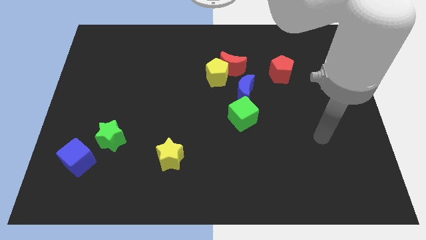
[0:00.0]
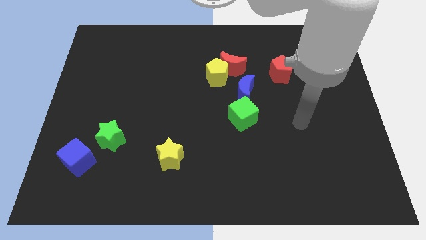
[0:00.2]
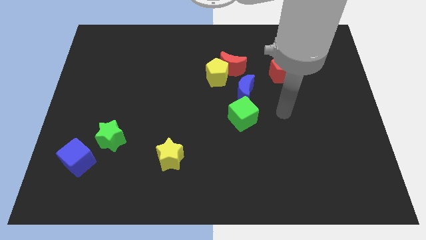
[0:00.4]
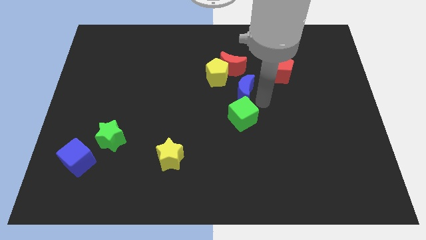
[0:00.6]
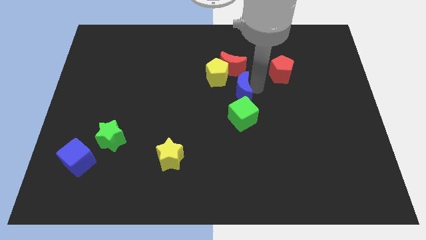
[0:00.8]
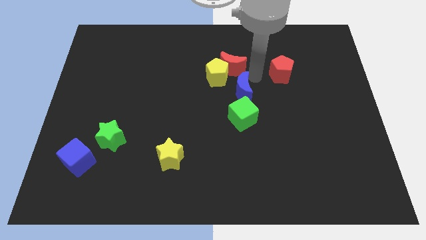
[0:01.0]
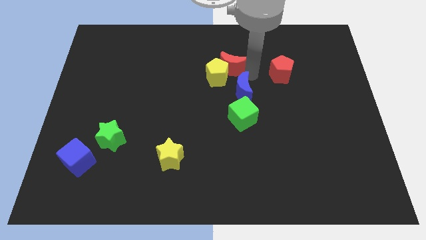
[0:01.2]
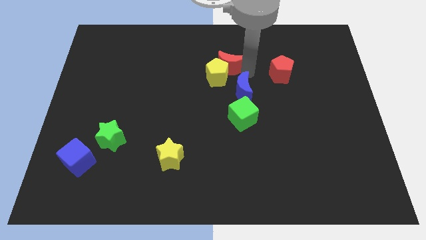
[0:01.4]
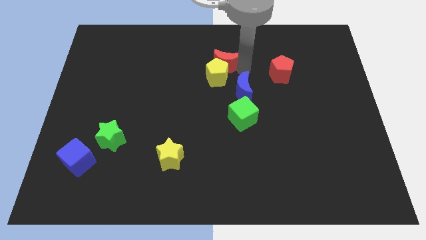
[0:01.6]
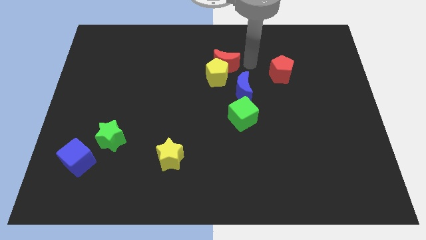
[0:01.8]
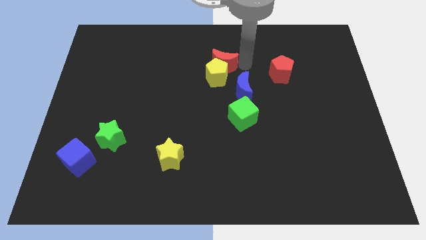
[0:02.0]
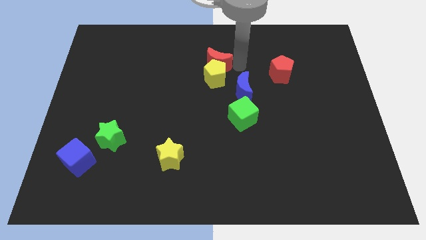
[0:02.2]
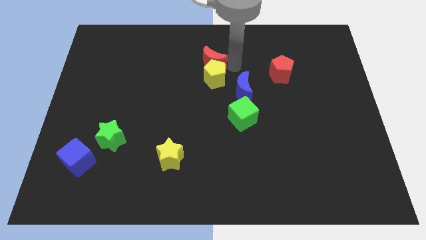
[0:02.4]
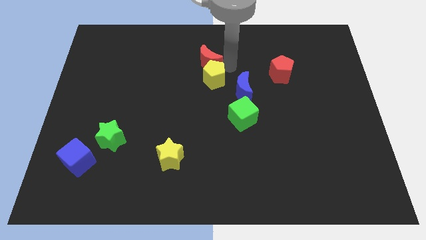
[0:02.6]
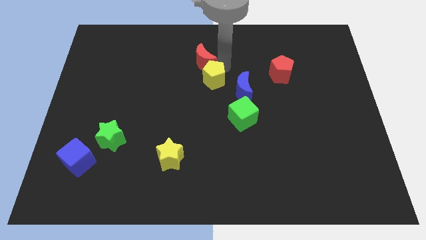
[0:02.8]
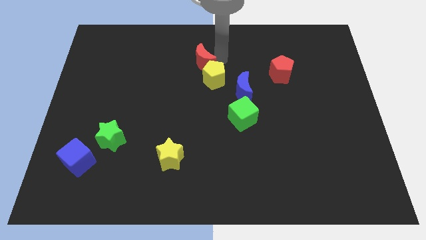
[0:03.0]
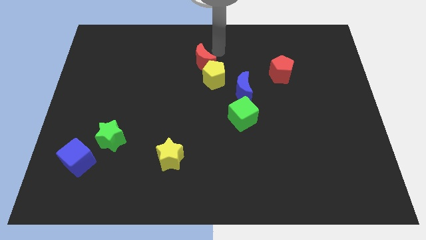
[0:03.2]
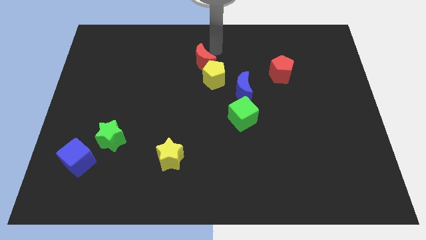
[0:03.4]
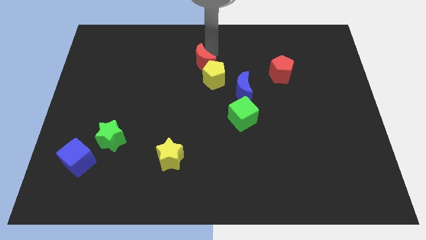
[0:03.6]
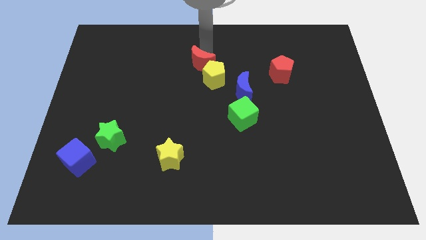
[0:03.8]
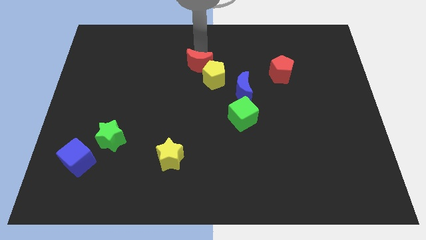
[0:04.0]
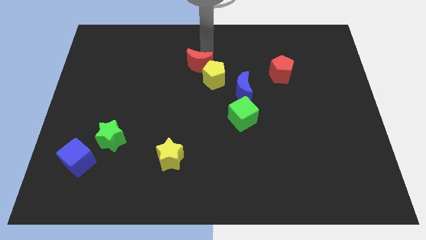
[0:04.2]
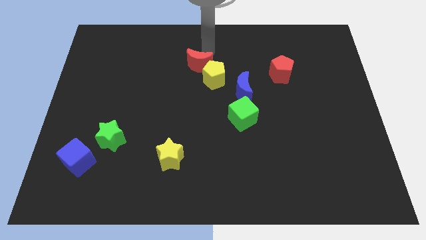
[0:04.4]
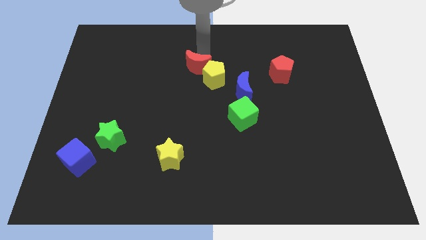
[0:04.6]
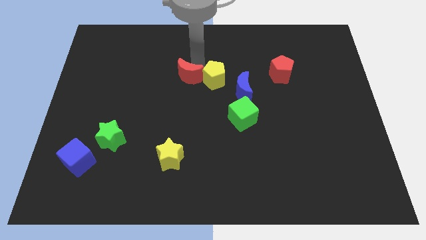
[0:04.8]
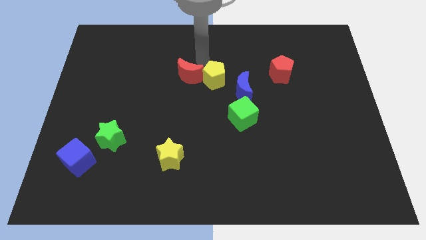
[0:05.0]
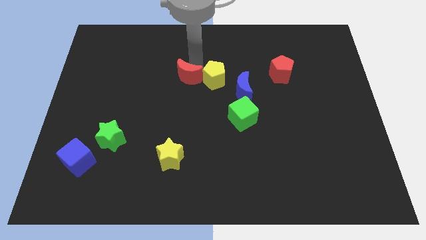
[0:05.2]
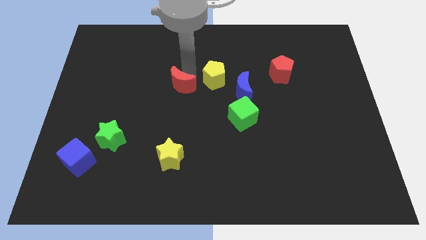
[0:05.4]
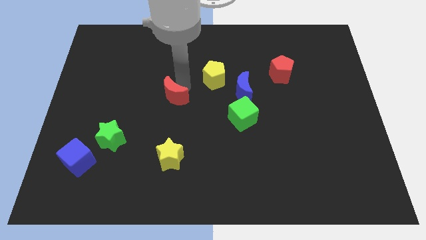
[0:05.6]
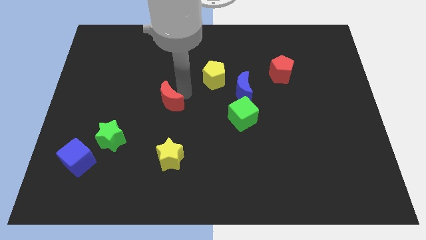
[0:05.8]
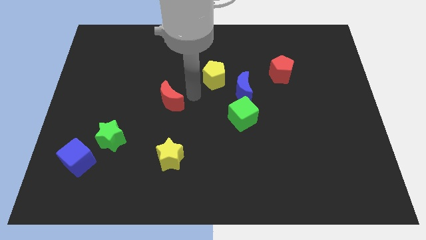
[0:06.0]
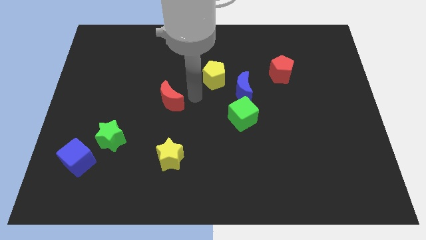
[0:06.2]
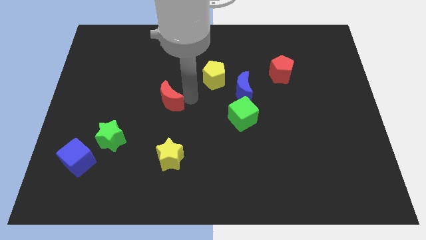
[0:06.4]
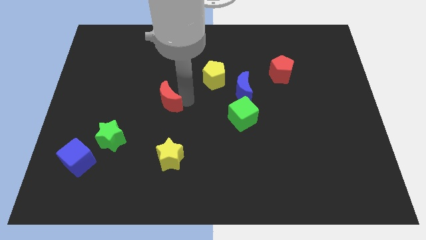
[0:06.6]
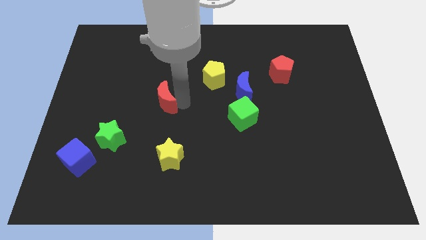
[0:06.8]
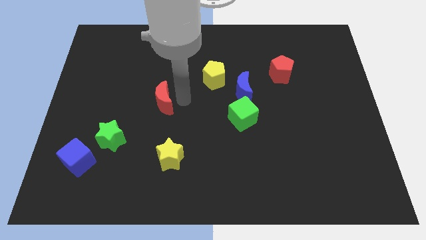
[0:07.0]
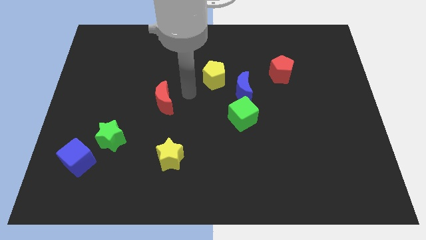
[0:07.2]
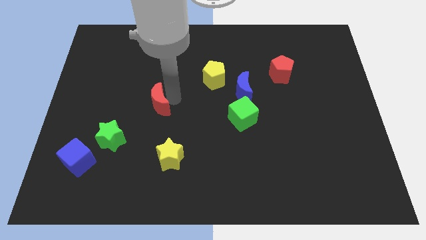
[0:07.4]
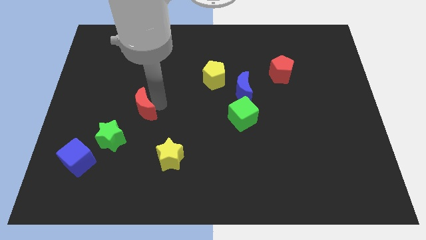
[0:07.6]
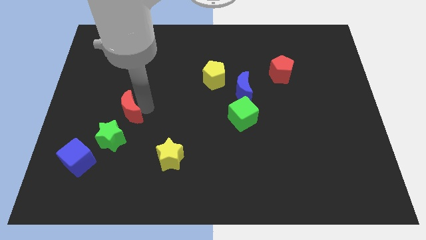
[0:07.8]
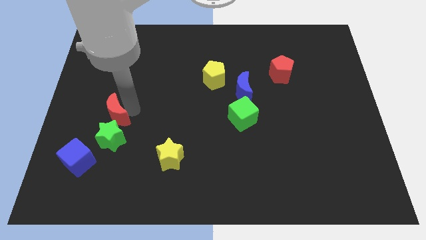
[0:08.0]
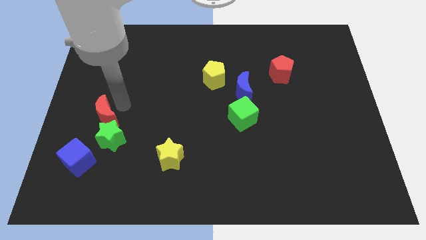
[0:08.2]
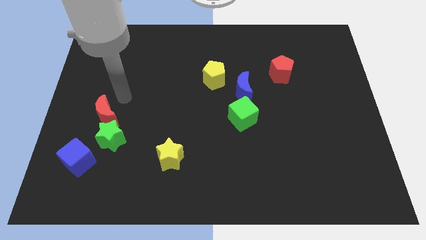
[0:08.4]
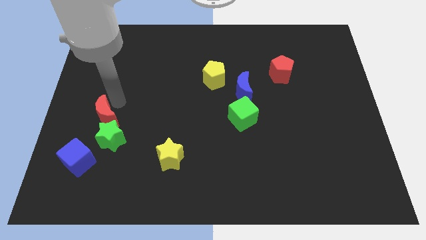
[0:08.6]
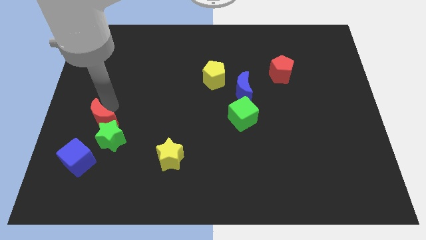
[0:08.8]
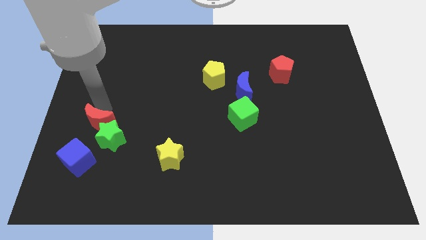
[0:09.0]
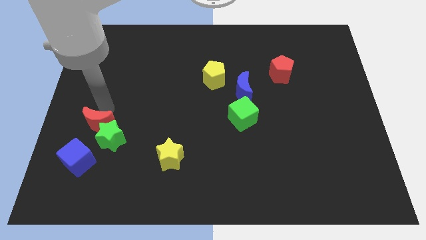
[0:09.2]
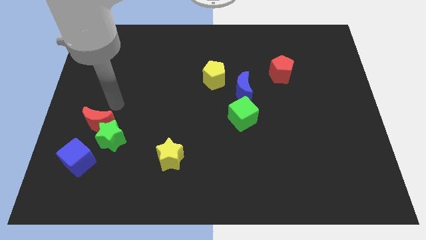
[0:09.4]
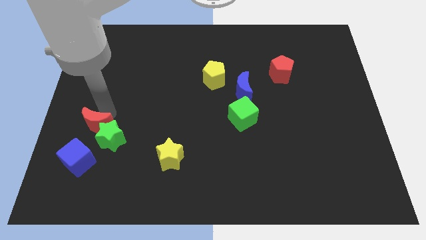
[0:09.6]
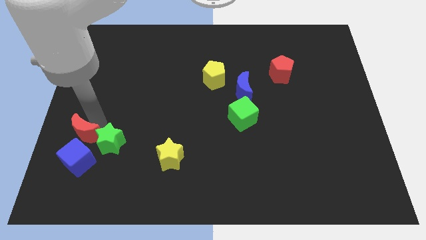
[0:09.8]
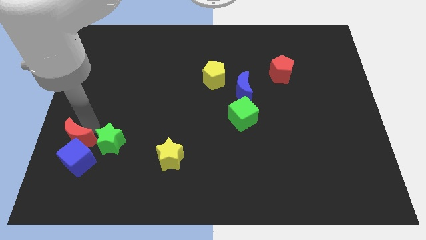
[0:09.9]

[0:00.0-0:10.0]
put the red moon close to the blue cube

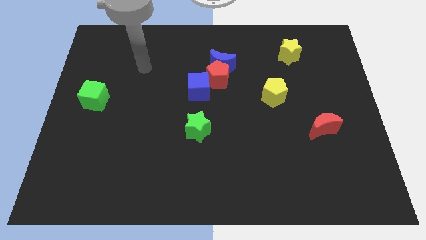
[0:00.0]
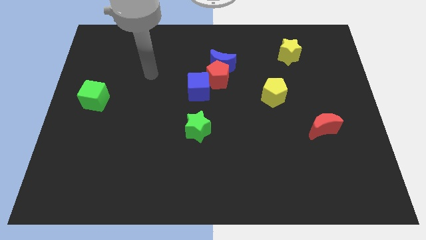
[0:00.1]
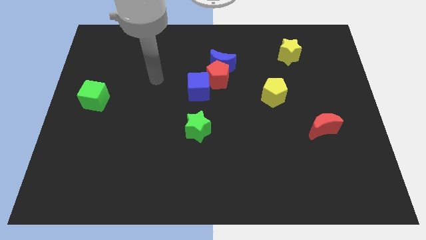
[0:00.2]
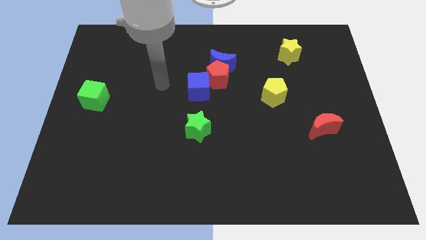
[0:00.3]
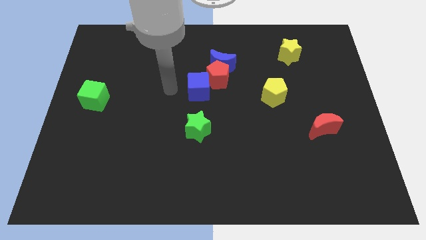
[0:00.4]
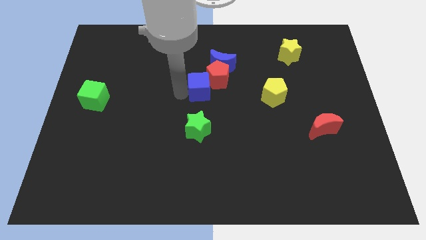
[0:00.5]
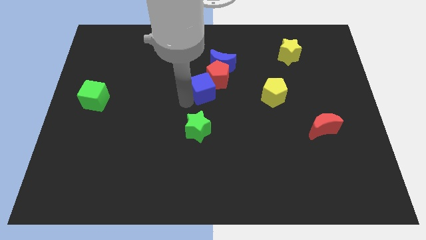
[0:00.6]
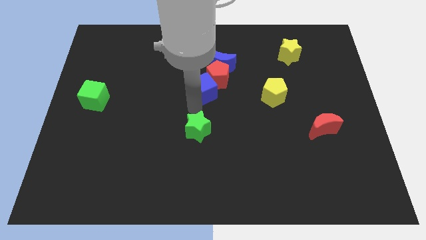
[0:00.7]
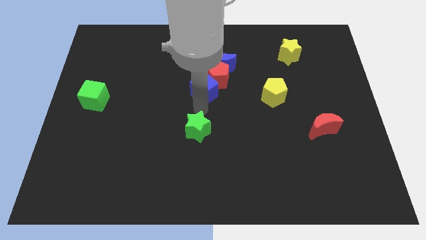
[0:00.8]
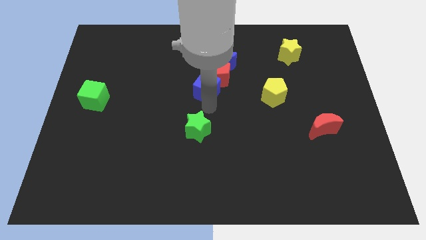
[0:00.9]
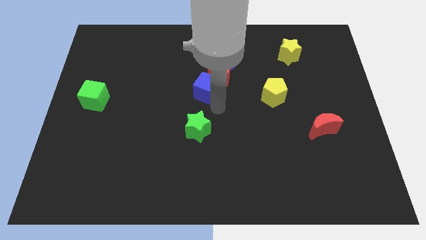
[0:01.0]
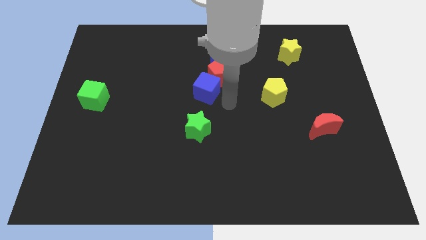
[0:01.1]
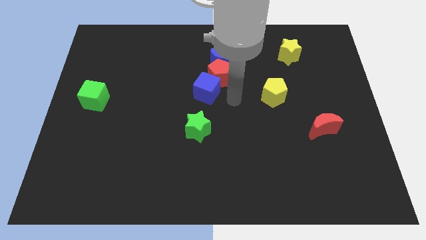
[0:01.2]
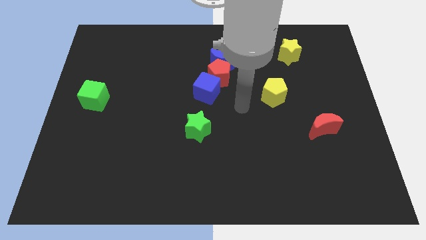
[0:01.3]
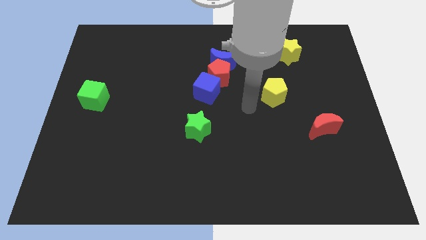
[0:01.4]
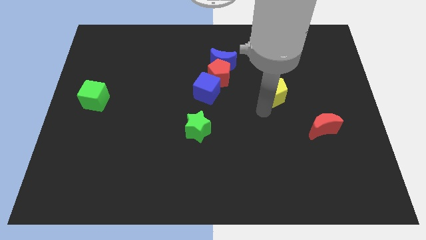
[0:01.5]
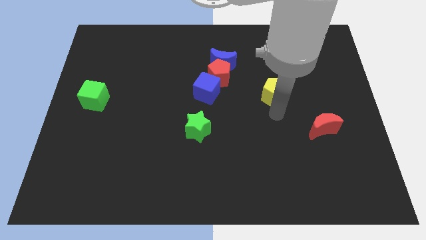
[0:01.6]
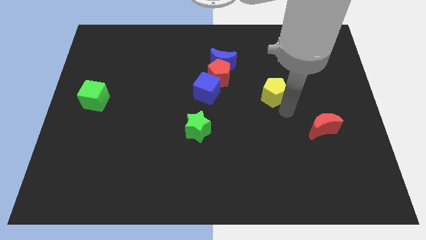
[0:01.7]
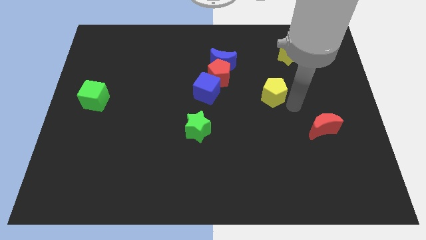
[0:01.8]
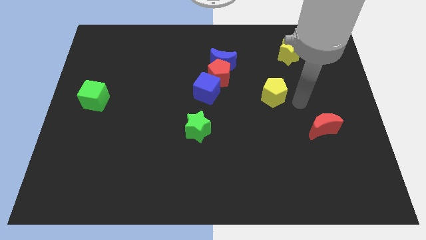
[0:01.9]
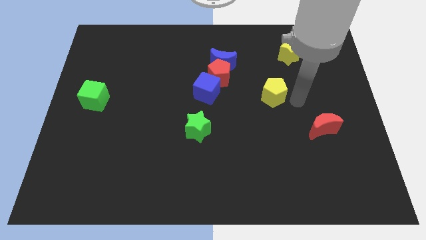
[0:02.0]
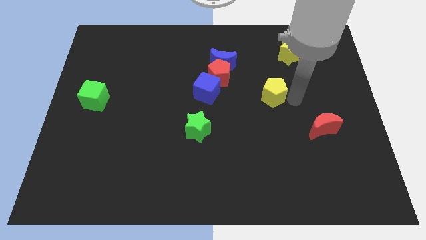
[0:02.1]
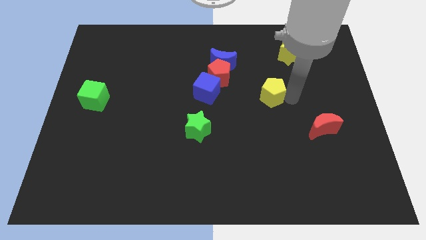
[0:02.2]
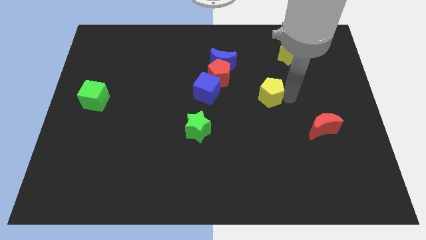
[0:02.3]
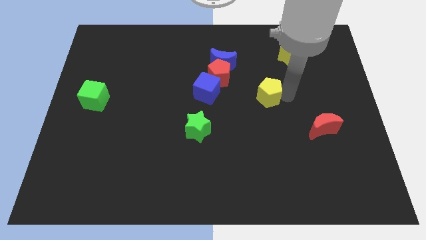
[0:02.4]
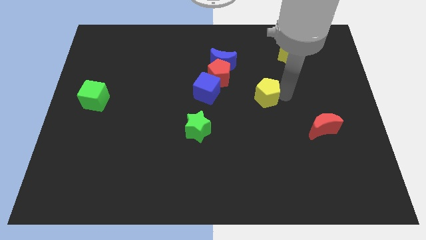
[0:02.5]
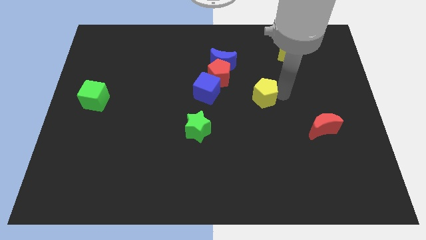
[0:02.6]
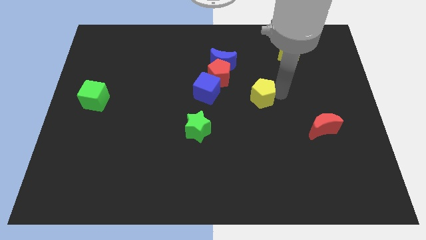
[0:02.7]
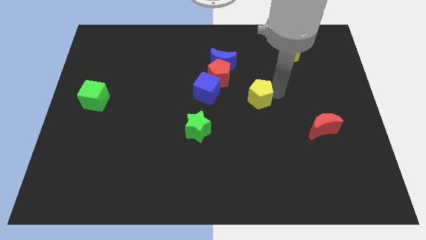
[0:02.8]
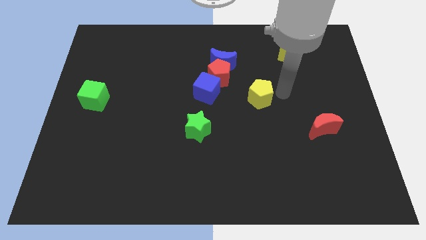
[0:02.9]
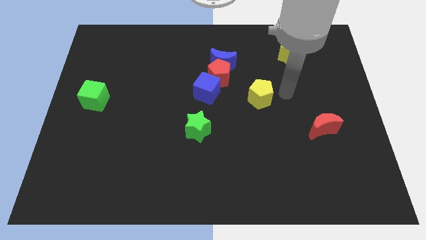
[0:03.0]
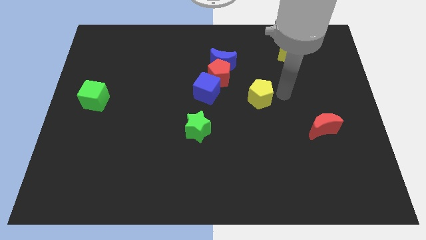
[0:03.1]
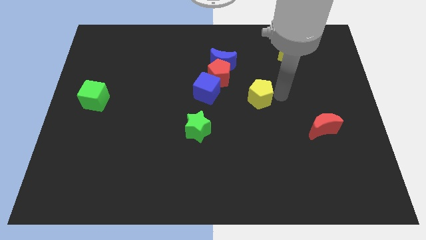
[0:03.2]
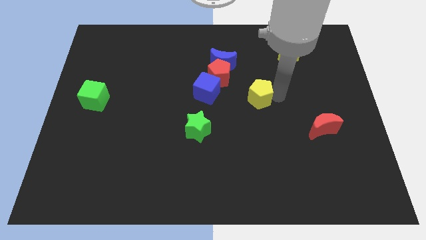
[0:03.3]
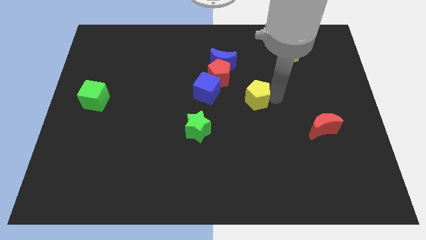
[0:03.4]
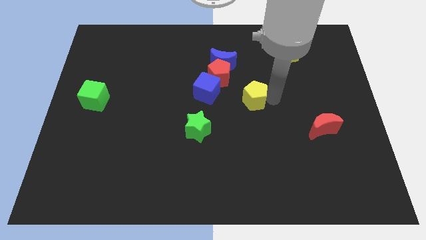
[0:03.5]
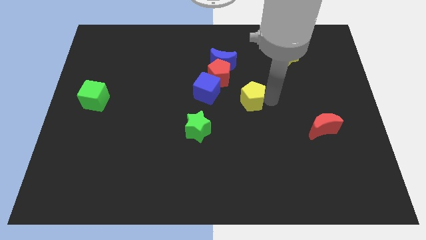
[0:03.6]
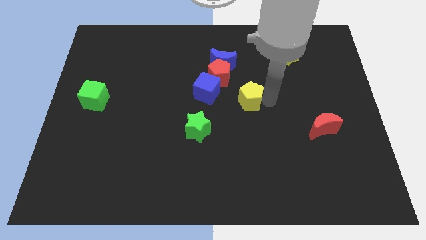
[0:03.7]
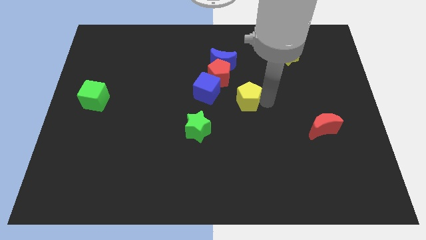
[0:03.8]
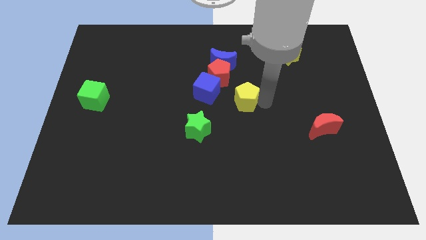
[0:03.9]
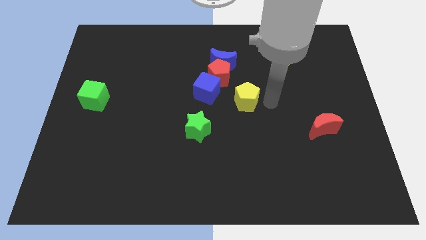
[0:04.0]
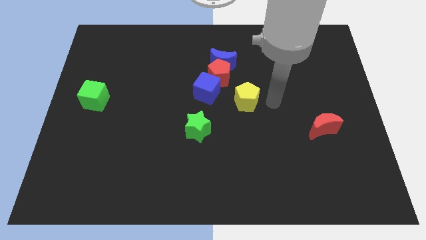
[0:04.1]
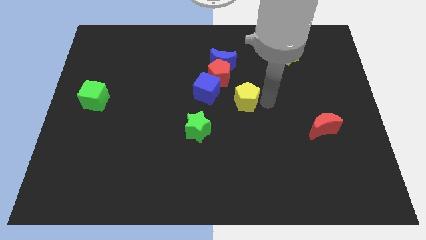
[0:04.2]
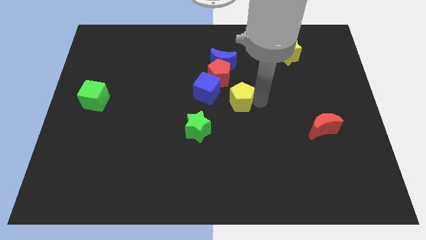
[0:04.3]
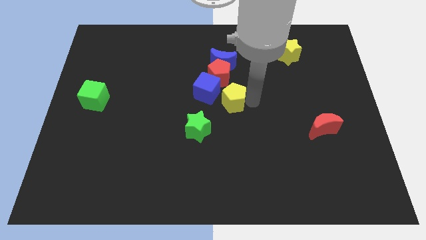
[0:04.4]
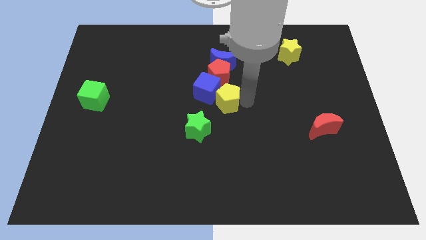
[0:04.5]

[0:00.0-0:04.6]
slide the yellow pentagon close to the blue cube
